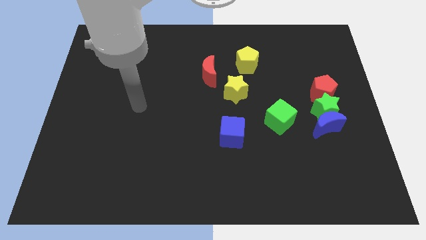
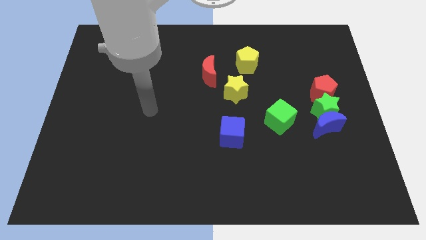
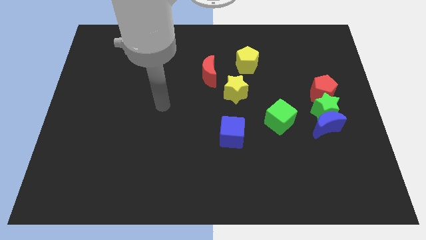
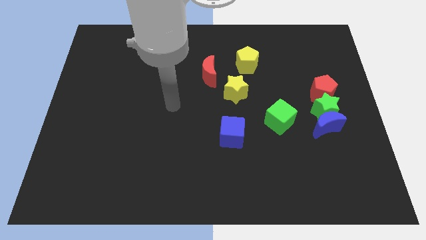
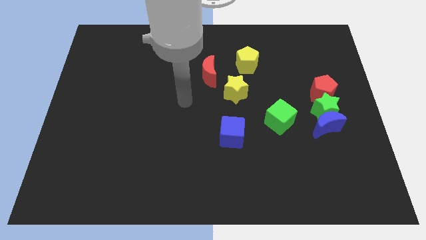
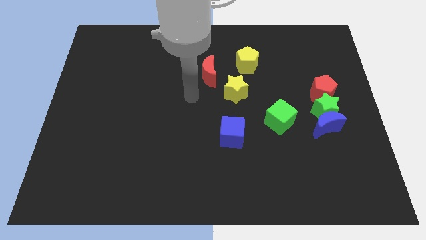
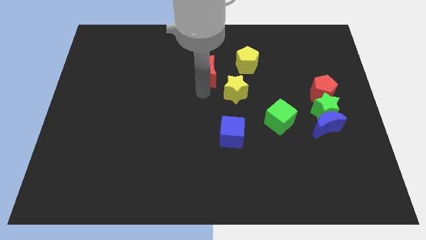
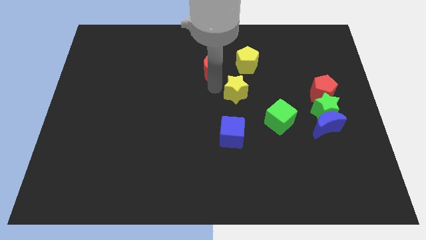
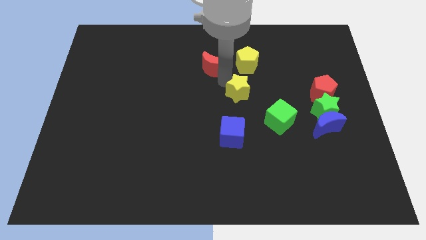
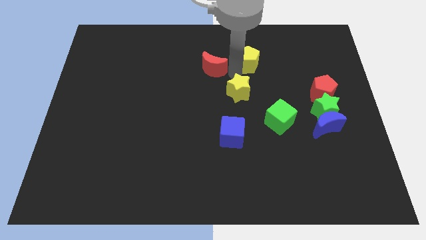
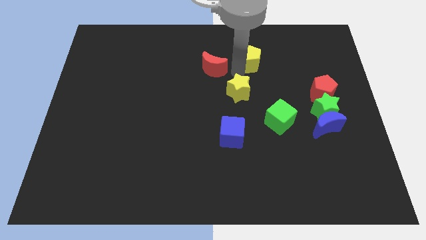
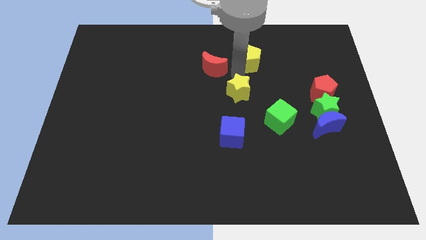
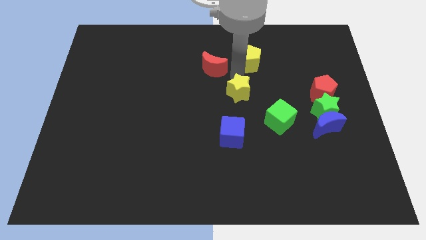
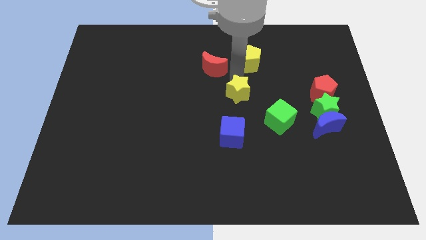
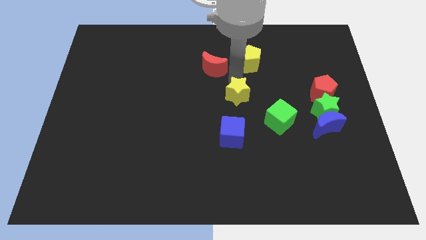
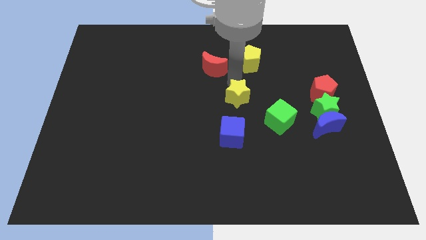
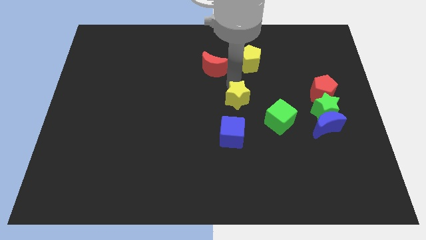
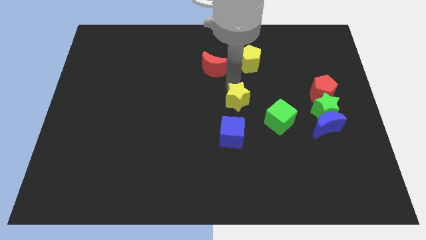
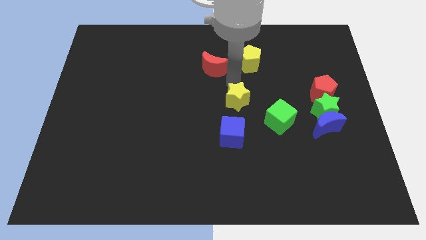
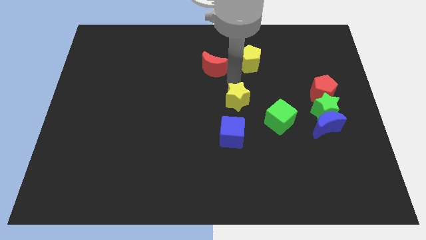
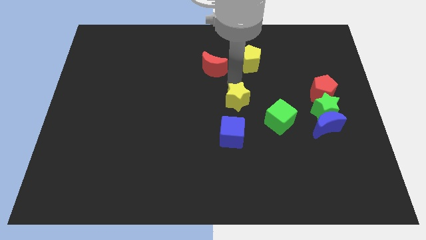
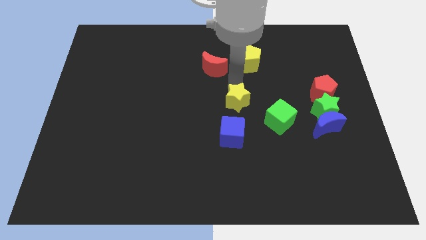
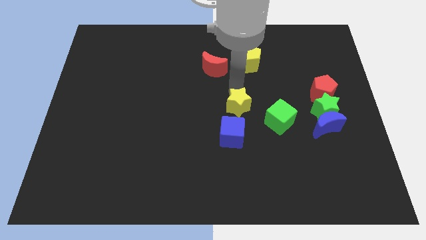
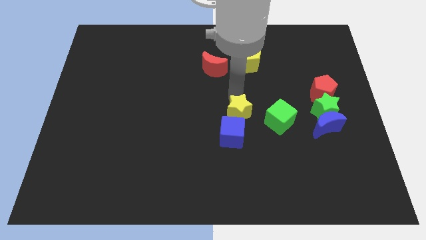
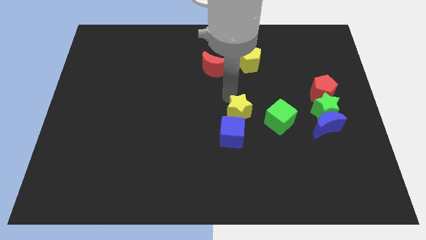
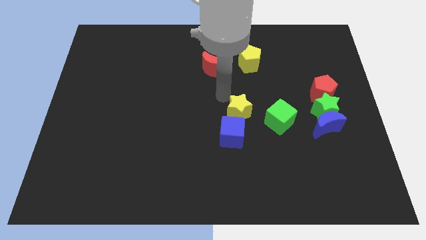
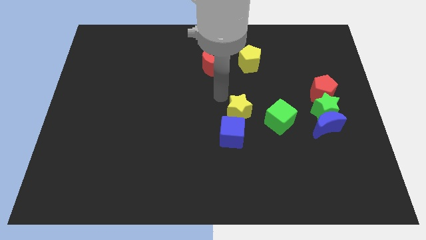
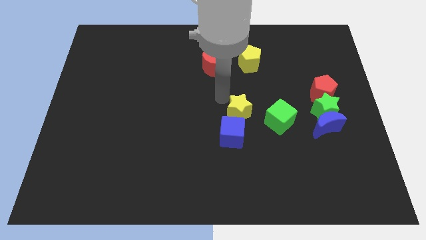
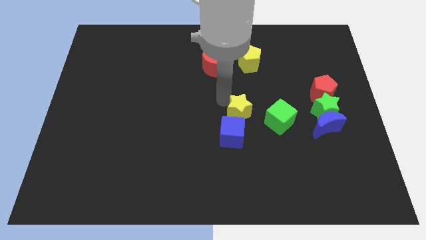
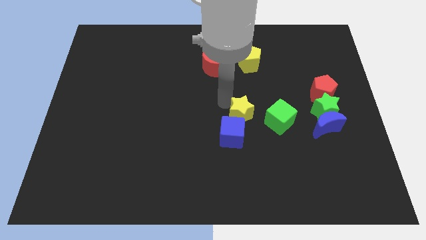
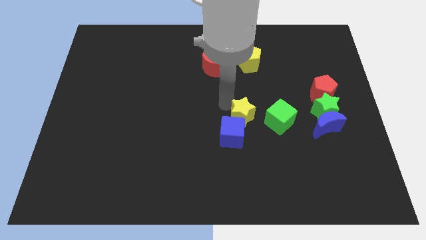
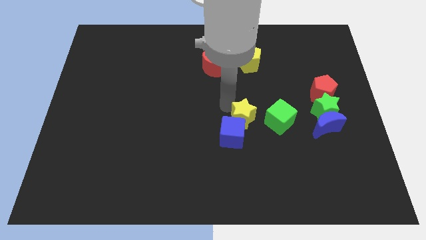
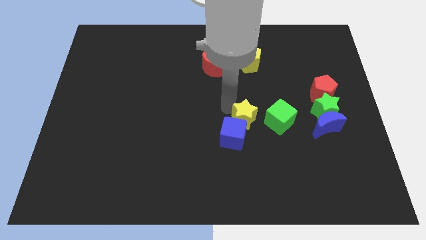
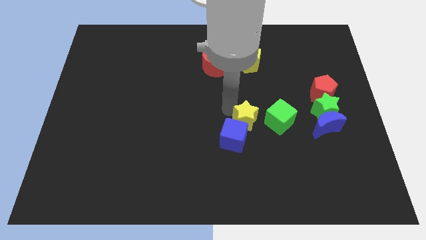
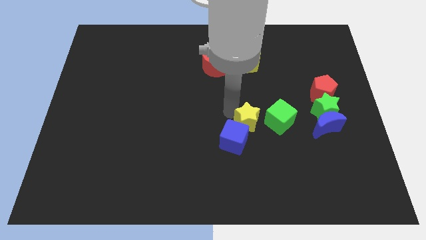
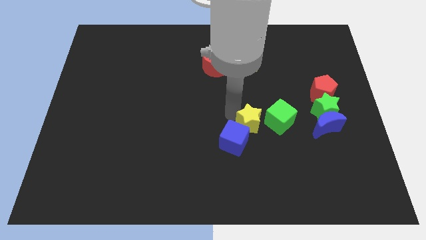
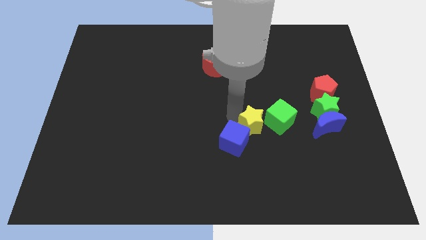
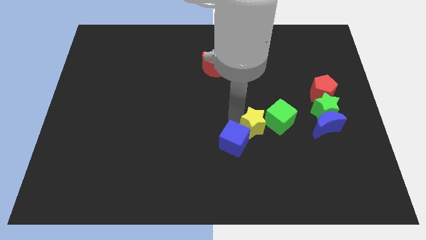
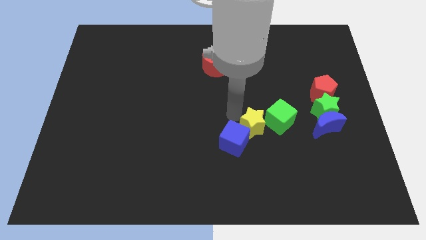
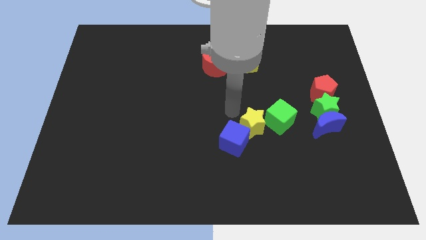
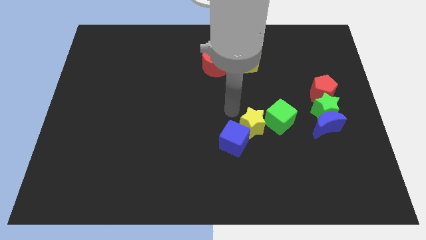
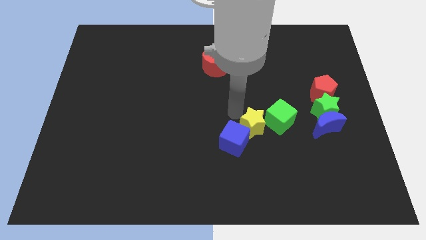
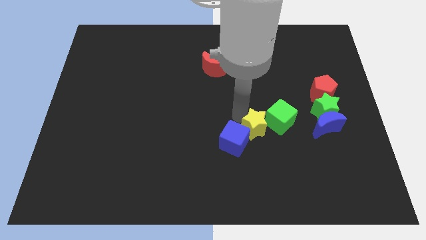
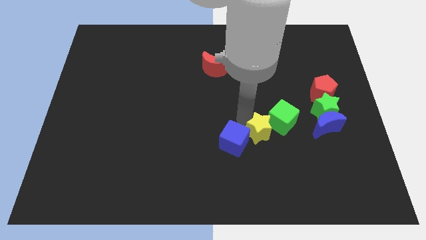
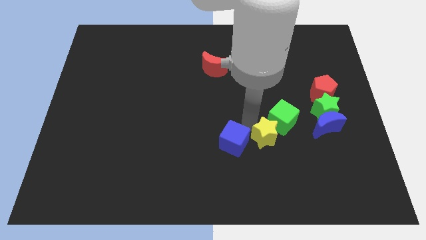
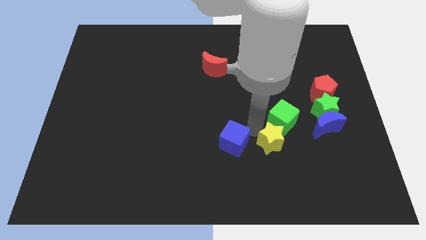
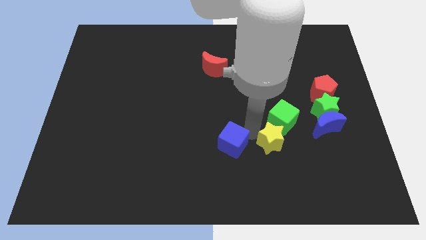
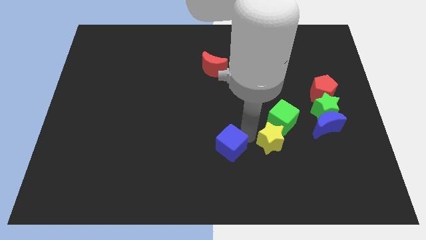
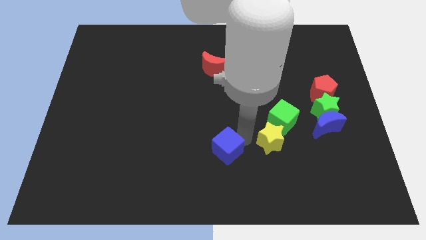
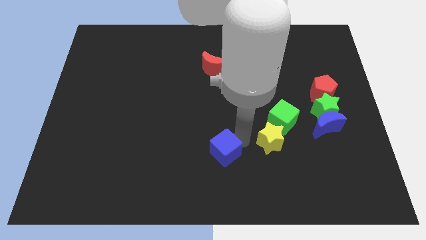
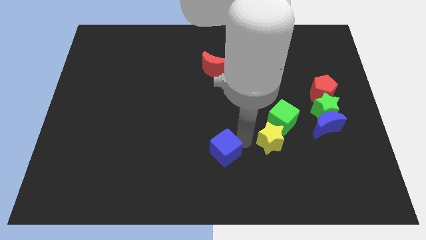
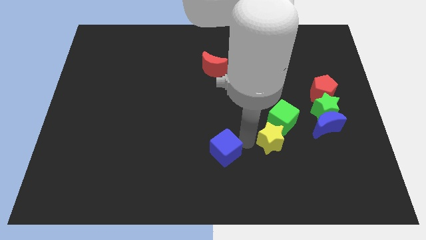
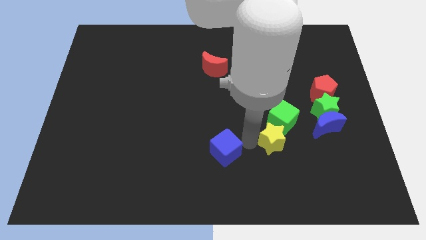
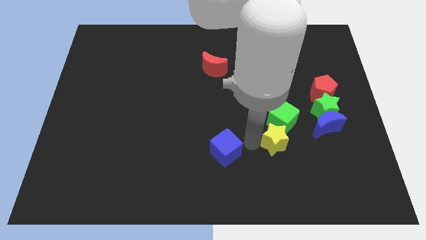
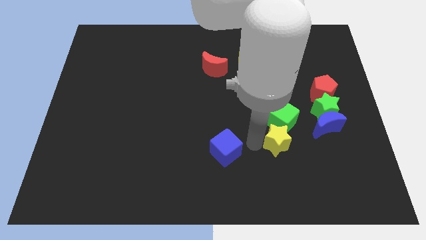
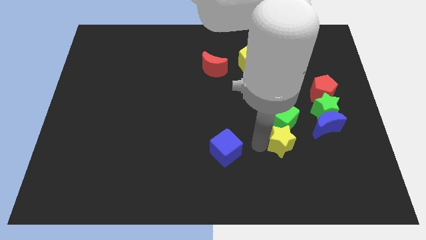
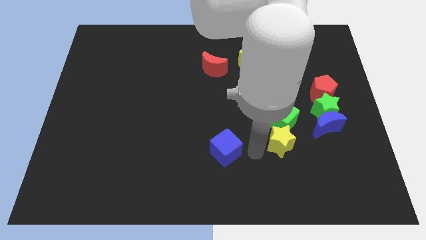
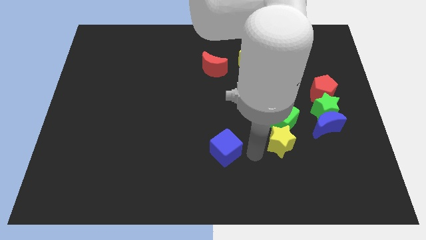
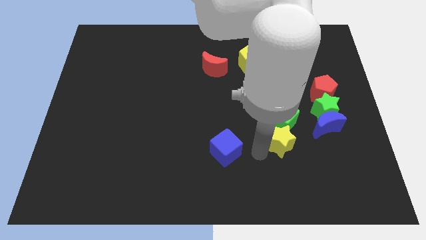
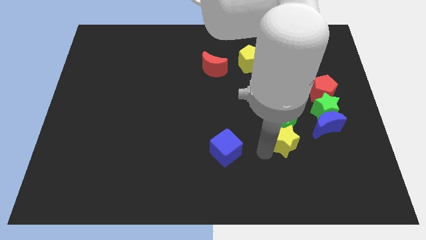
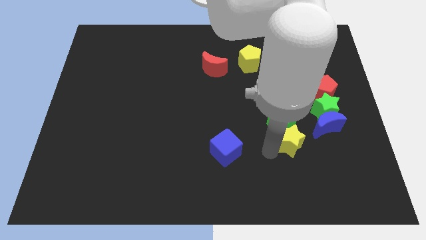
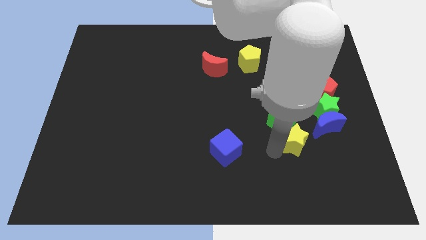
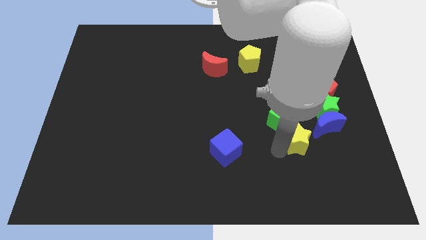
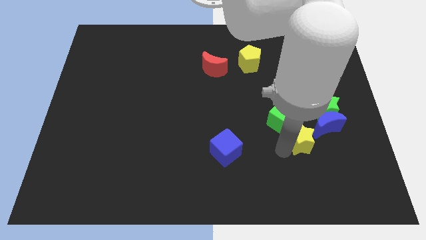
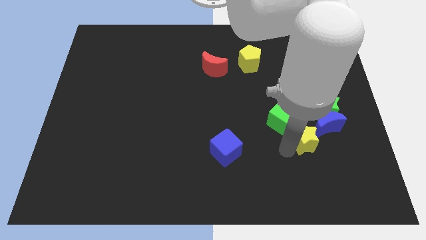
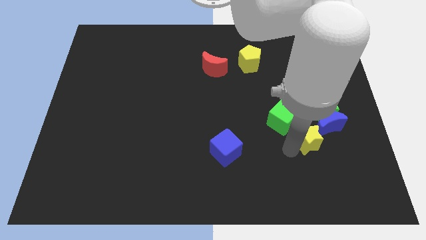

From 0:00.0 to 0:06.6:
move the yellow star close to the blue moon
